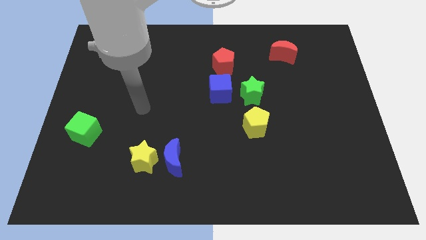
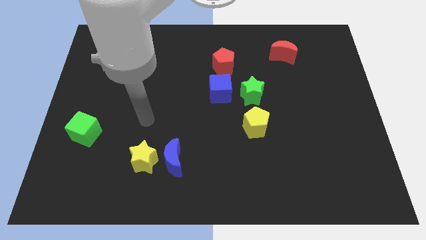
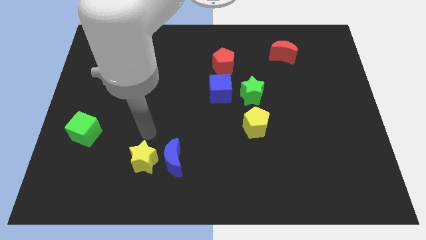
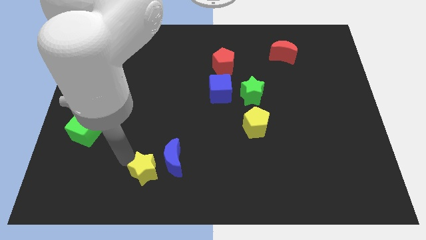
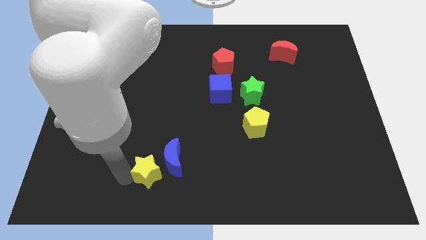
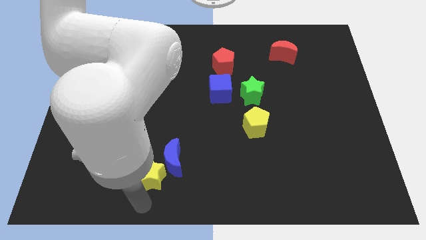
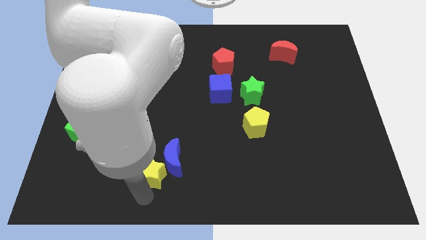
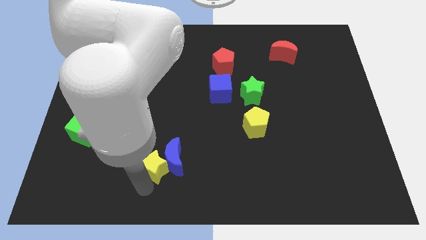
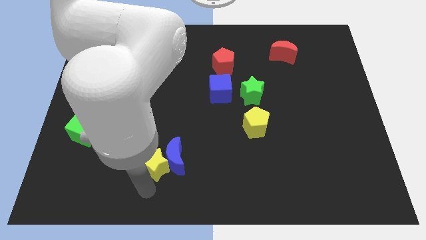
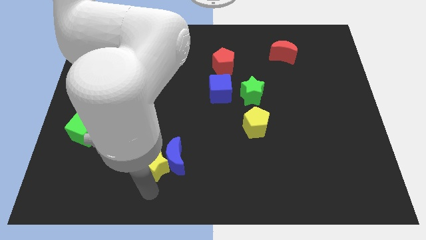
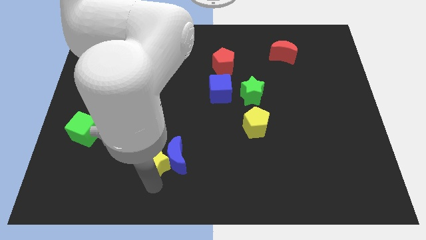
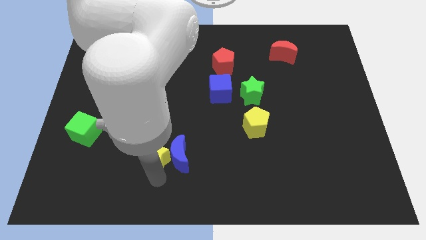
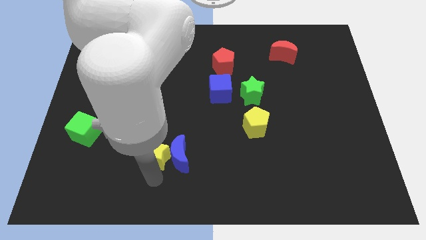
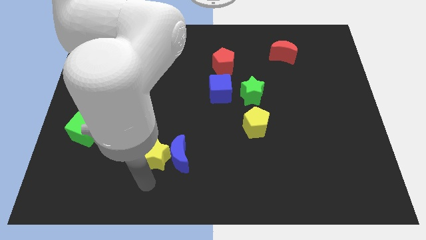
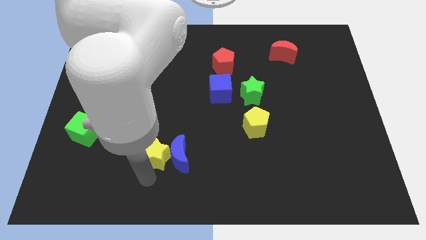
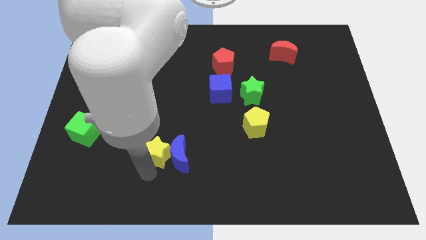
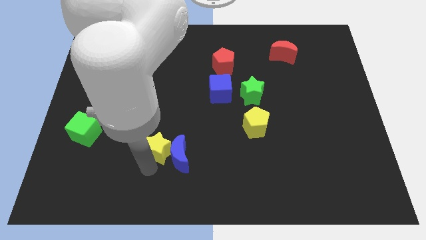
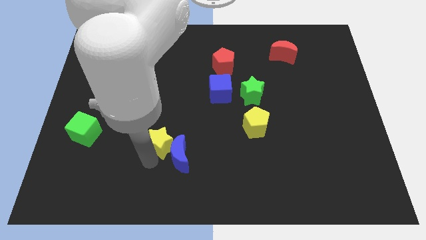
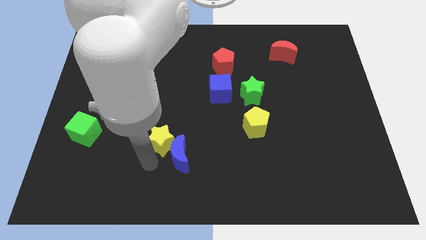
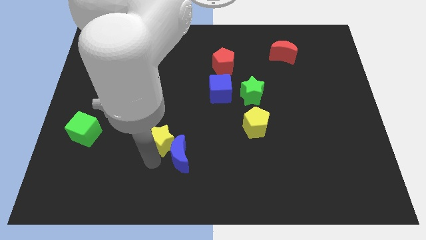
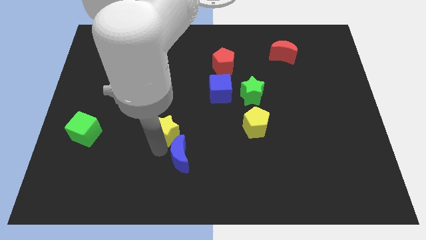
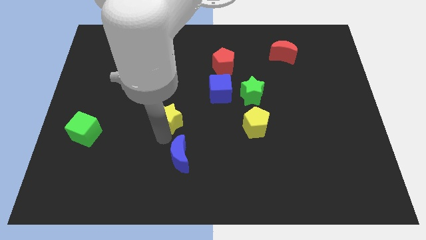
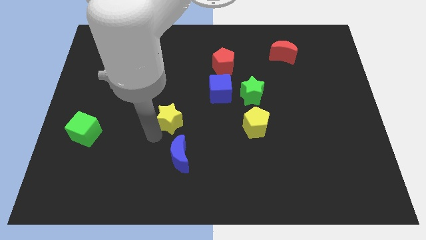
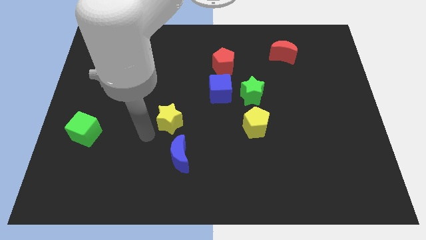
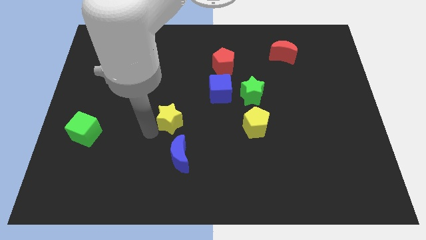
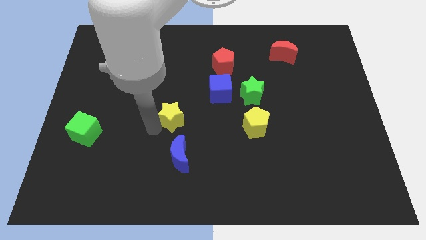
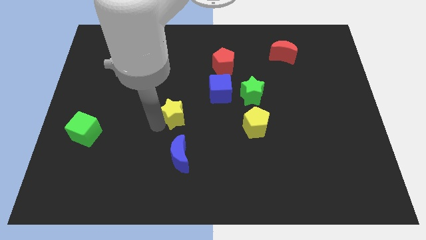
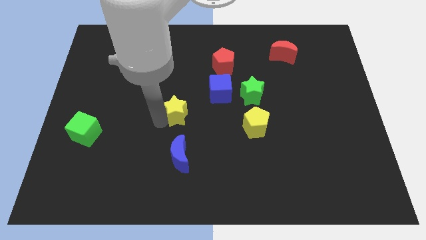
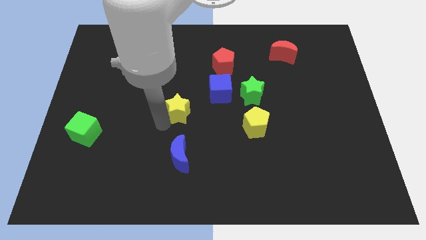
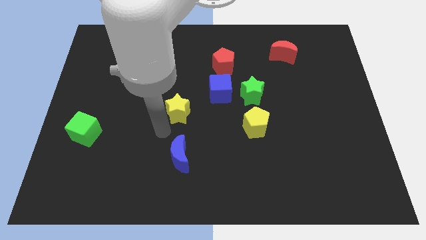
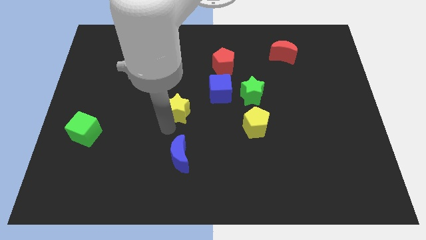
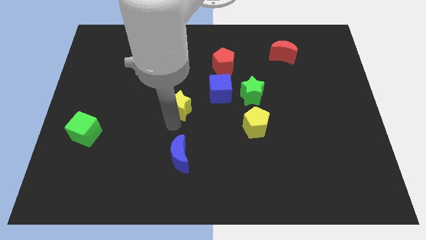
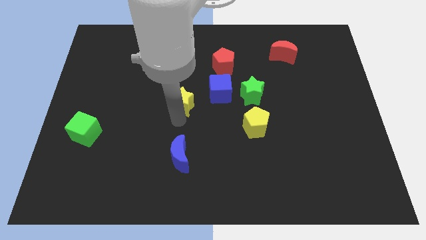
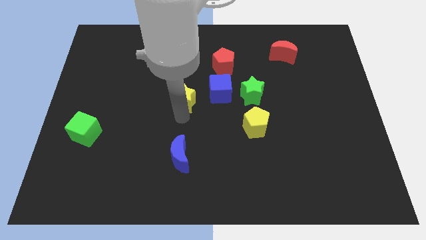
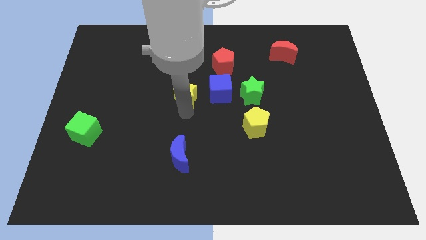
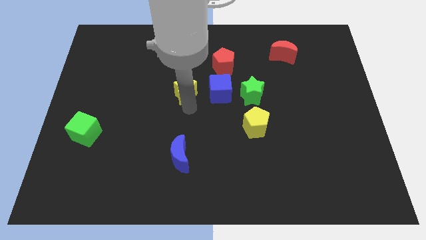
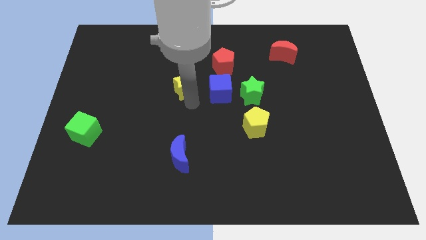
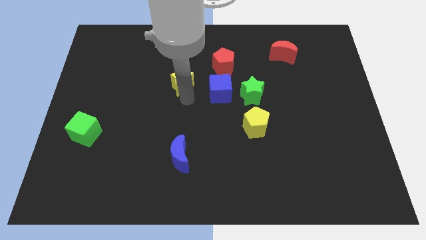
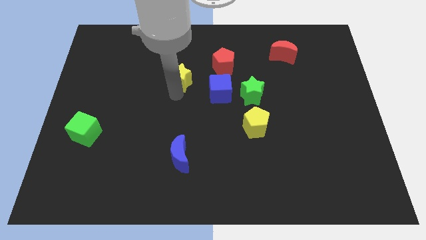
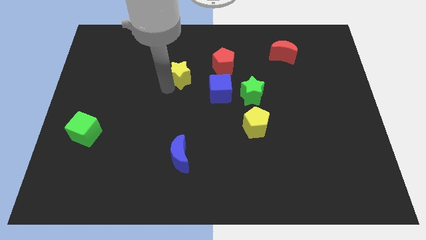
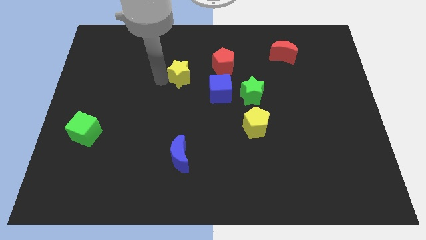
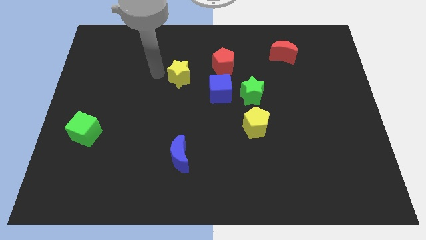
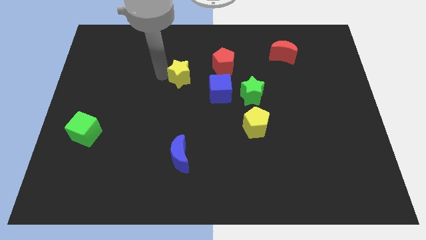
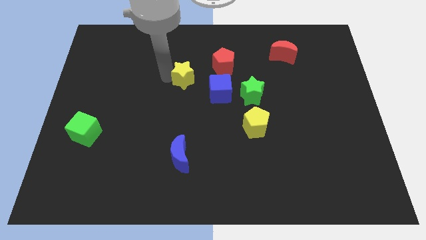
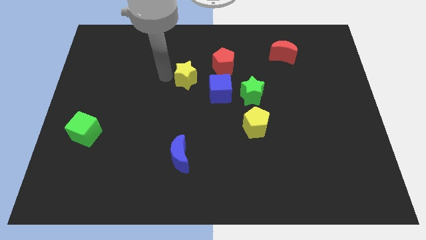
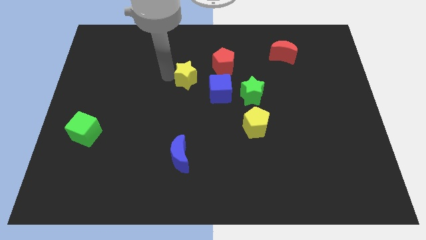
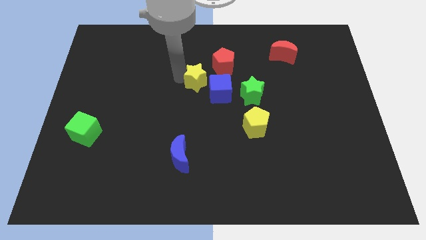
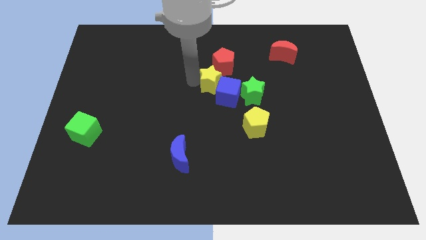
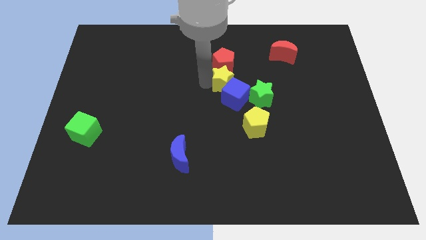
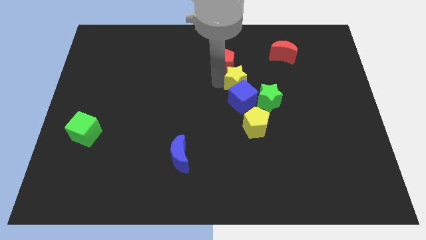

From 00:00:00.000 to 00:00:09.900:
put the yellow star above the yellow pentagon

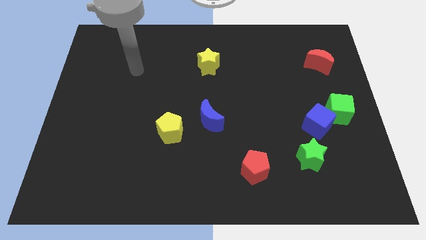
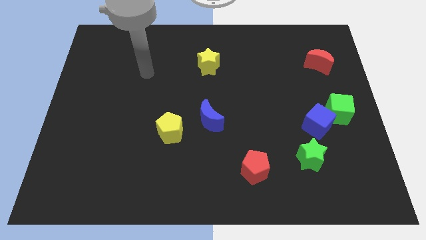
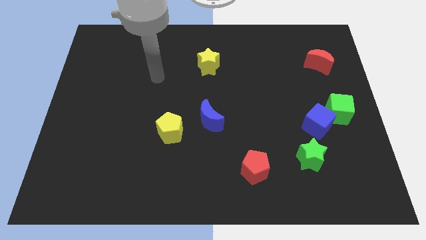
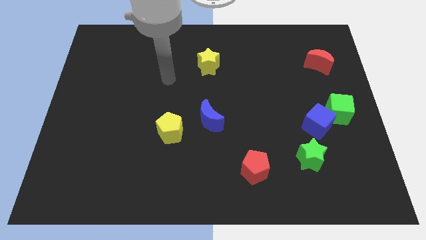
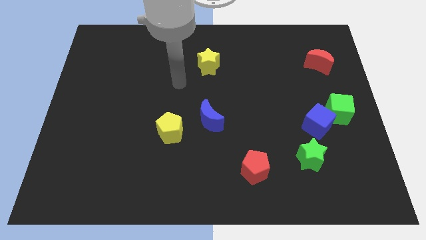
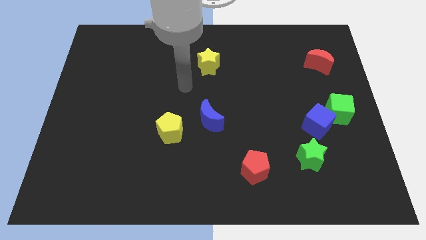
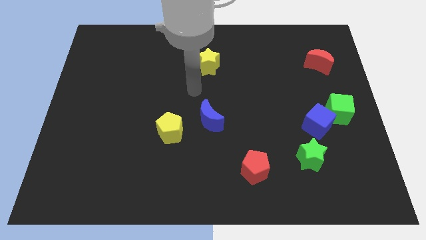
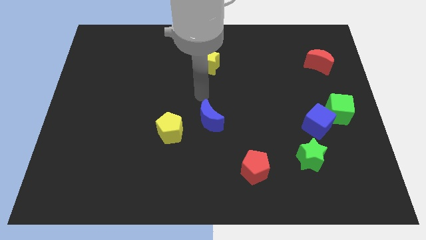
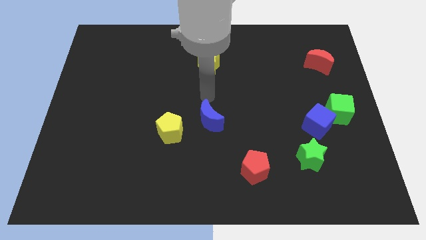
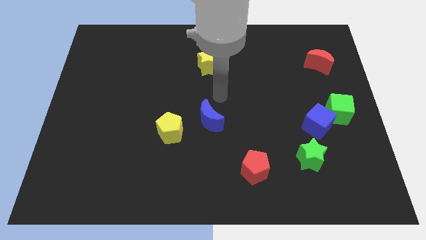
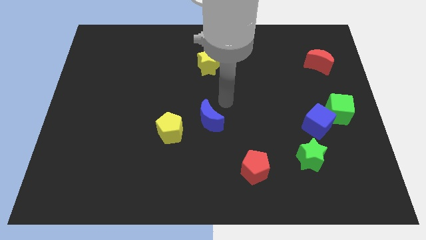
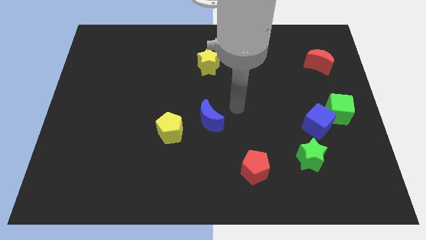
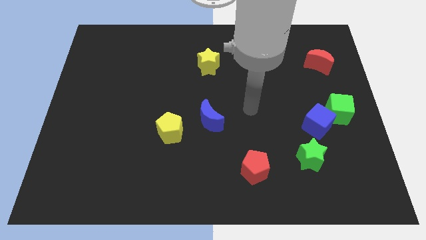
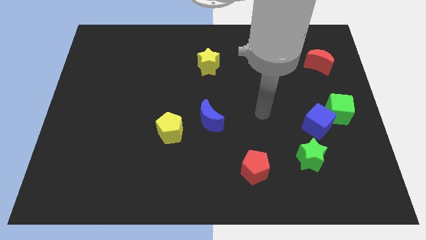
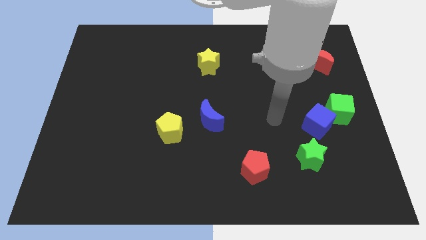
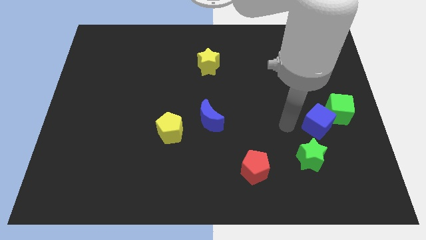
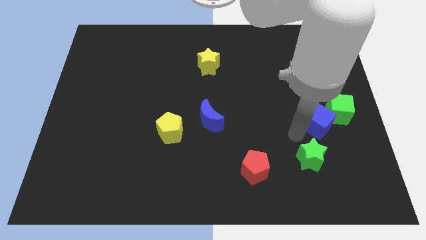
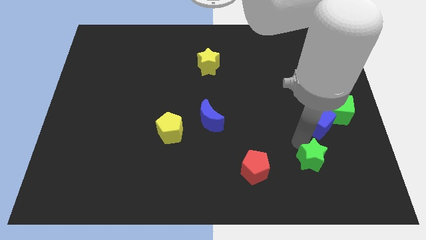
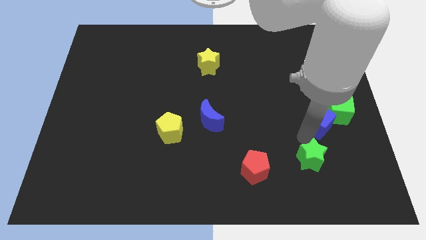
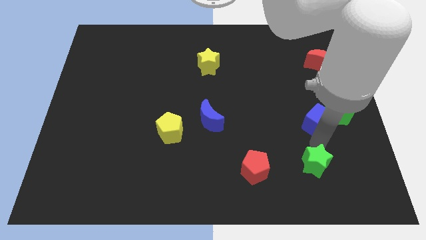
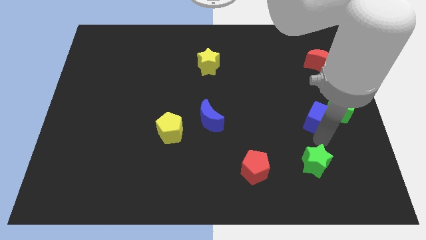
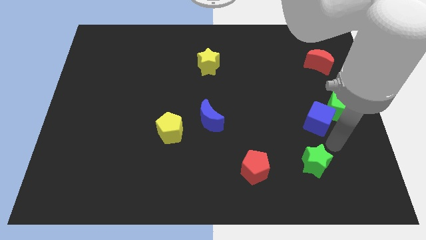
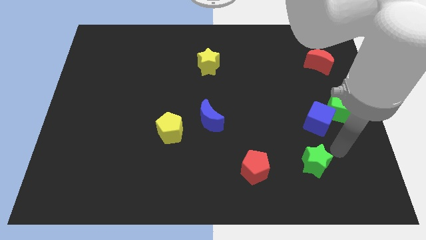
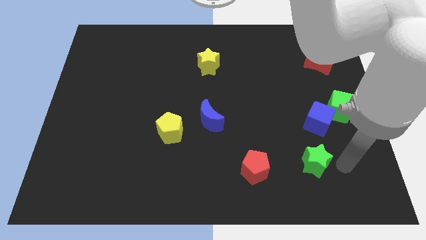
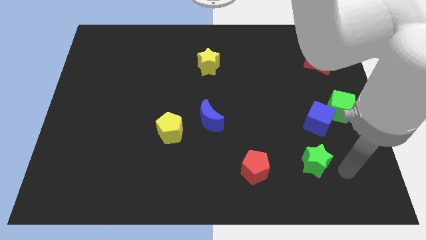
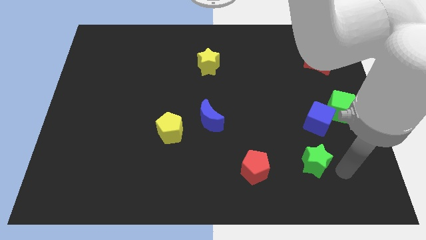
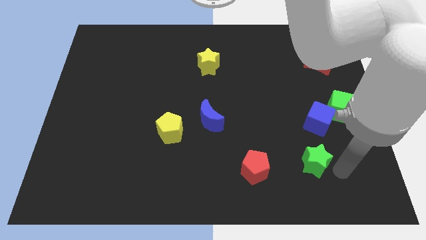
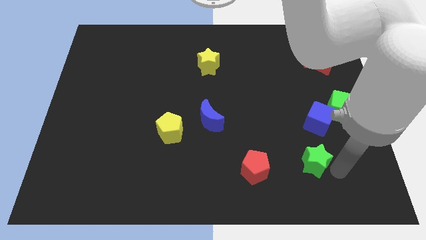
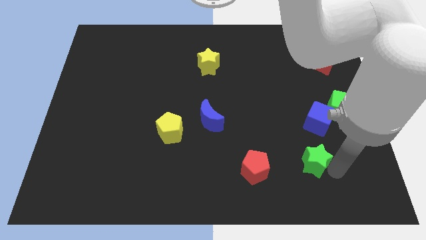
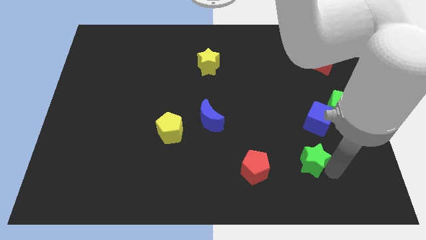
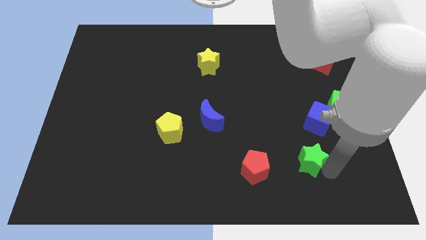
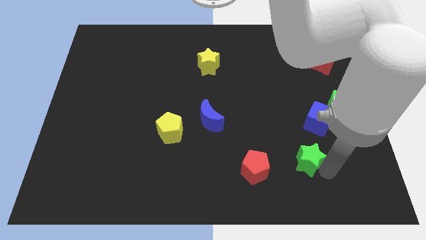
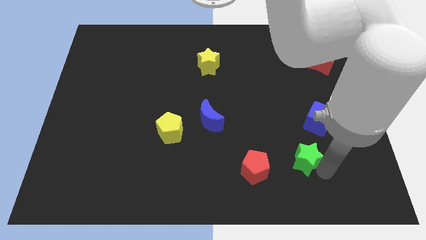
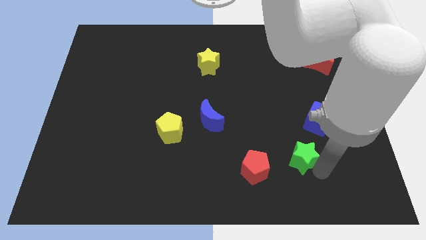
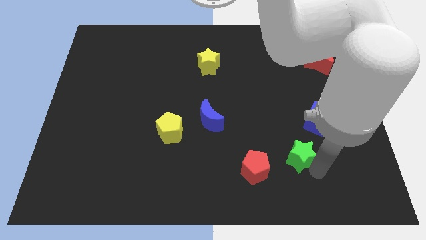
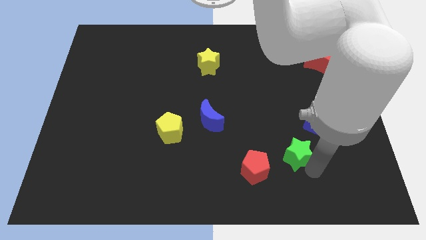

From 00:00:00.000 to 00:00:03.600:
put the green star to the top right of the red pentagon
